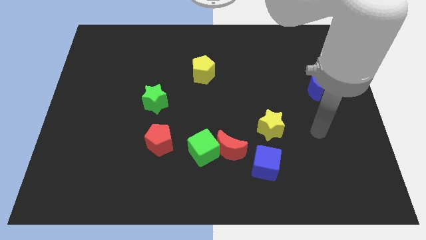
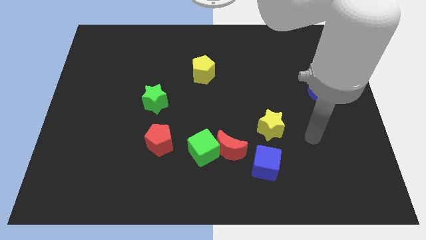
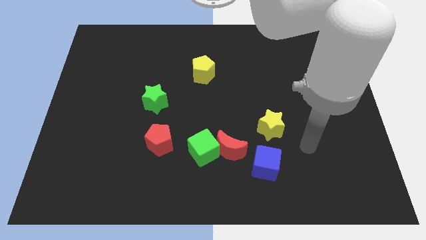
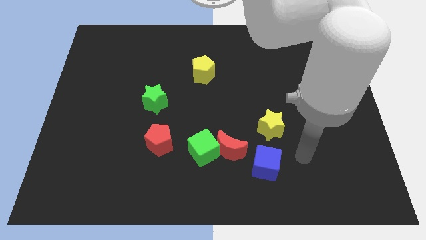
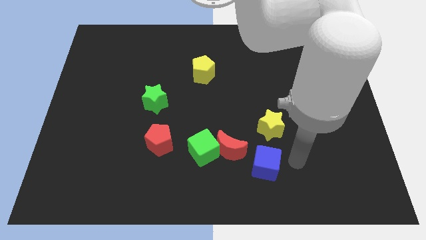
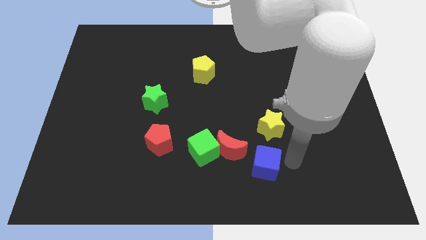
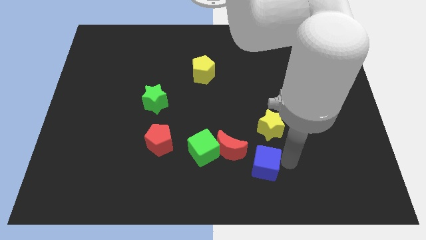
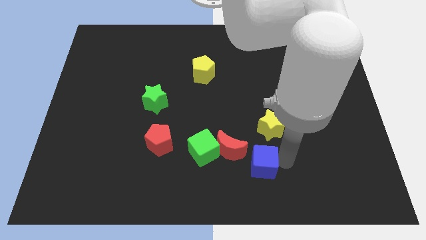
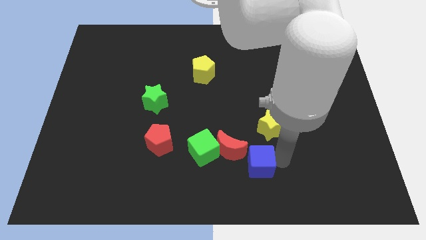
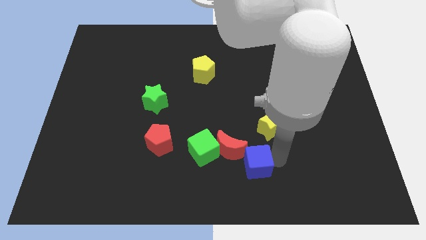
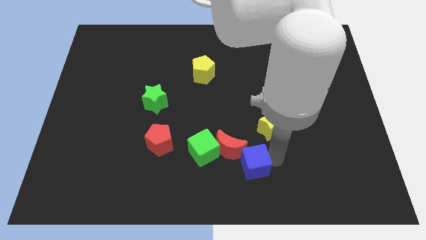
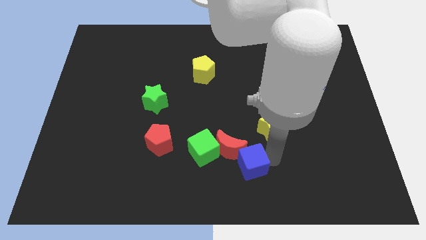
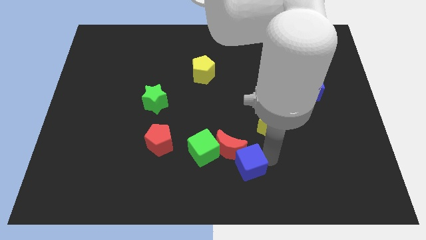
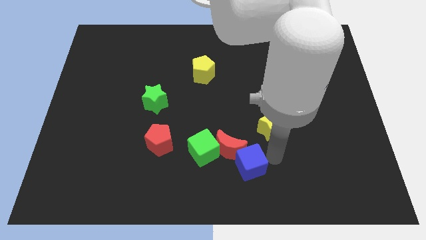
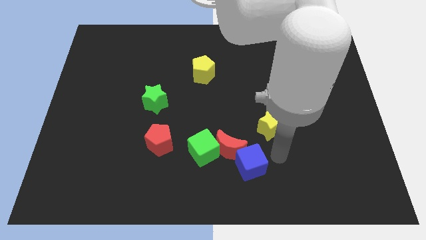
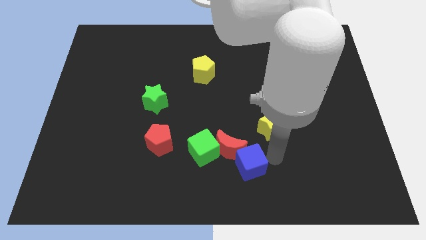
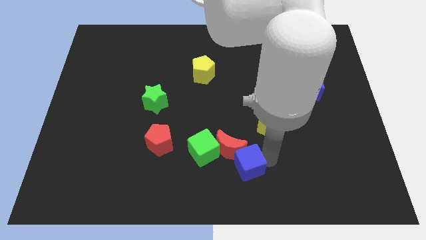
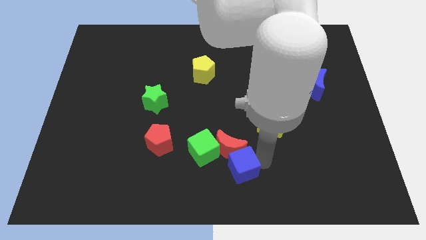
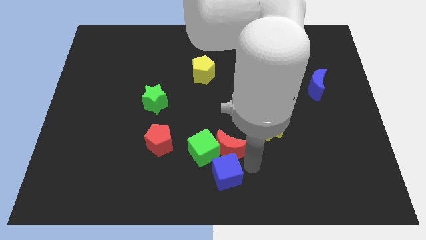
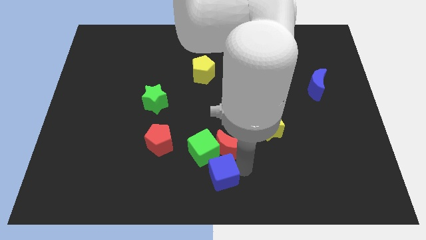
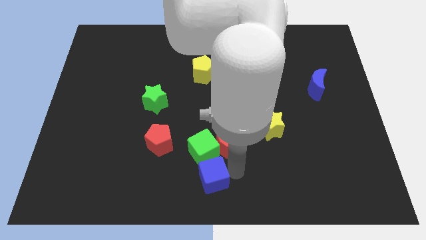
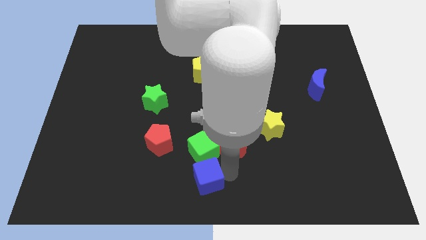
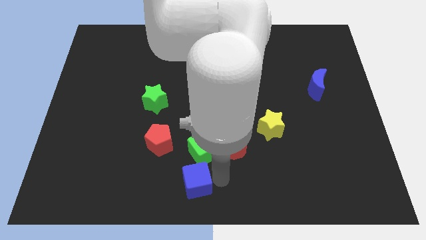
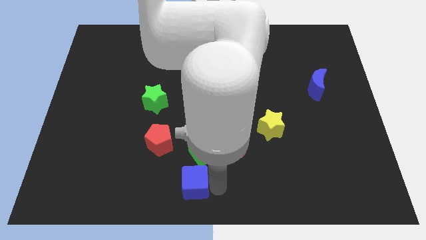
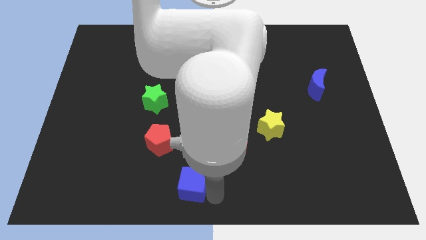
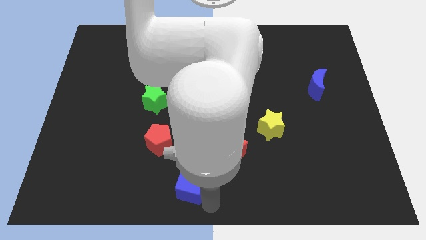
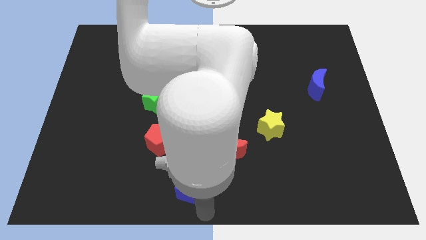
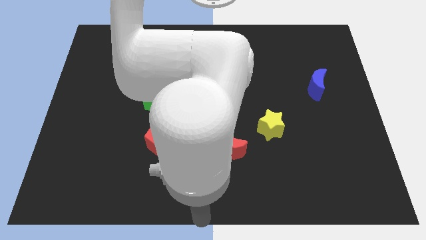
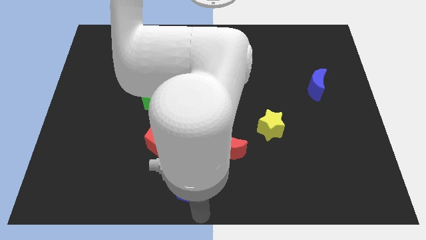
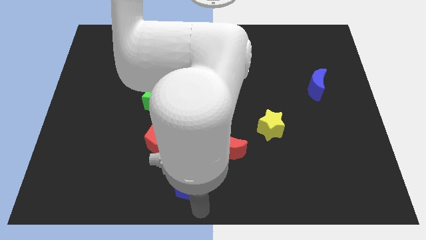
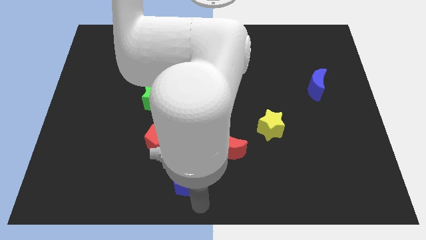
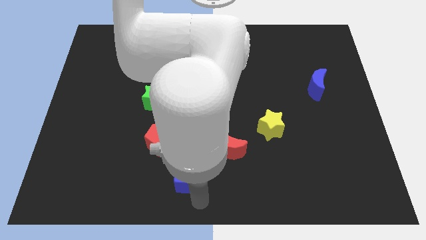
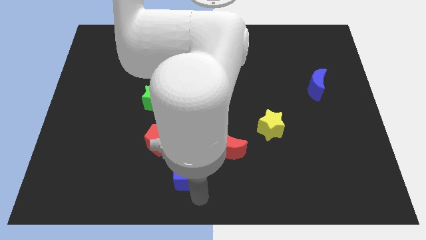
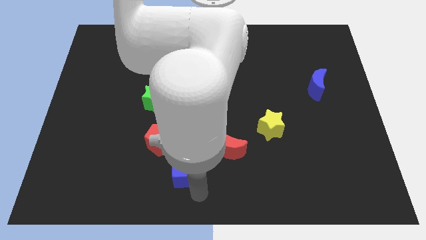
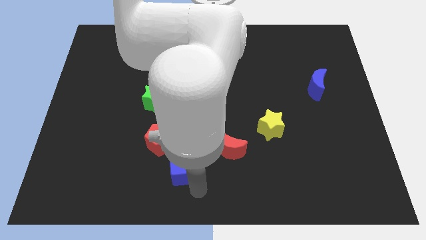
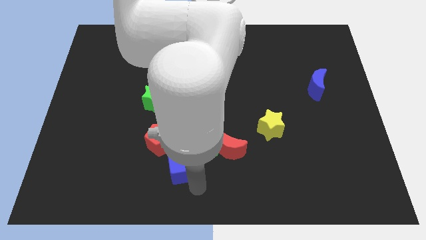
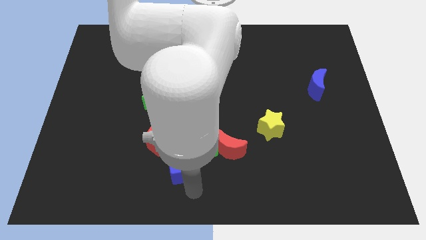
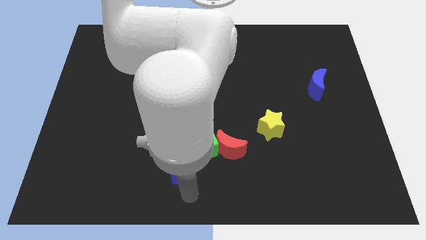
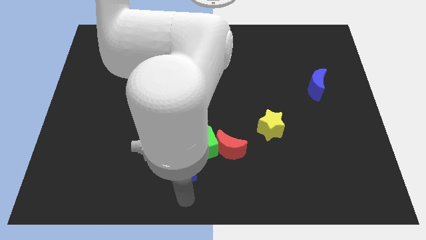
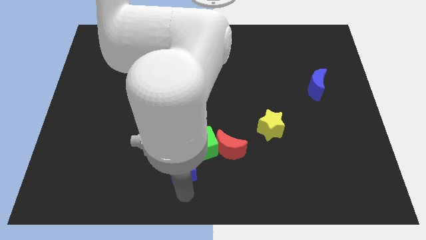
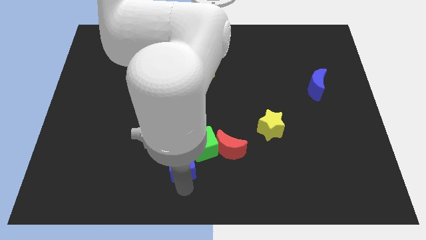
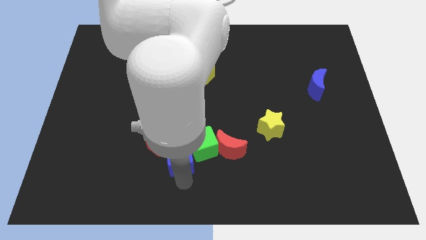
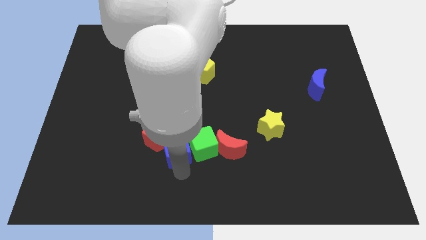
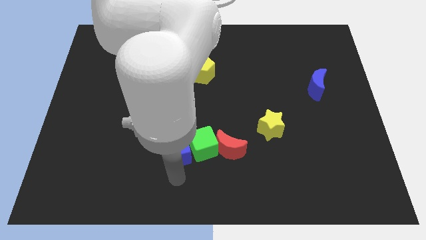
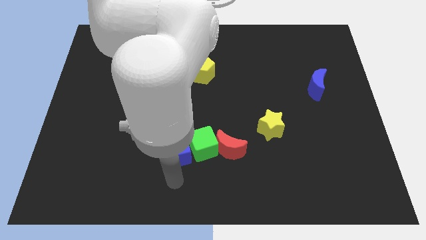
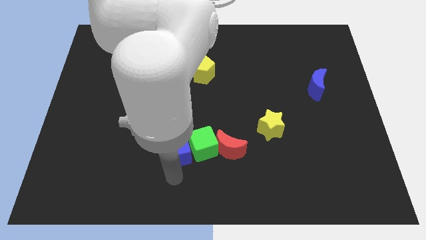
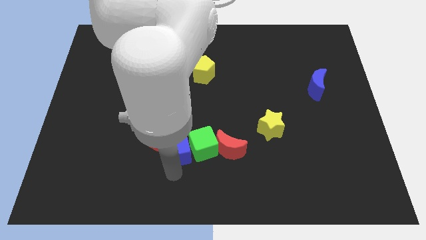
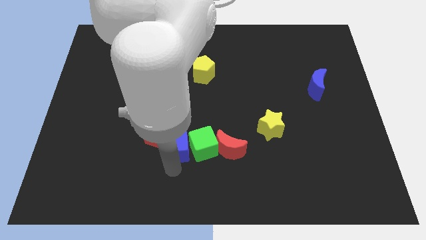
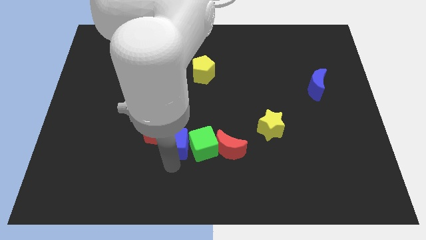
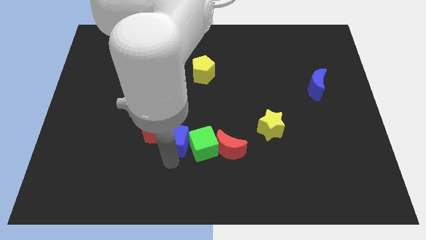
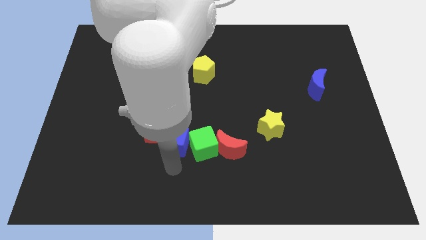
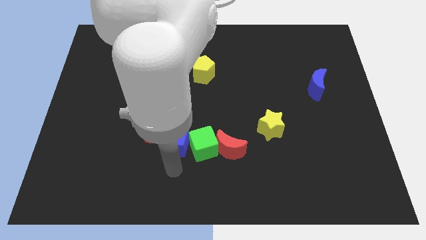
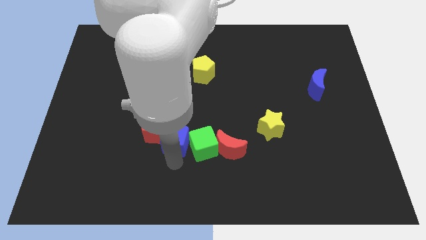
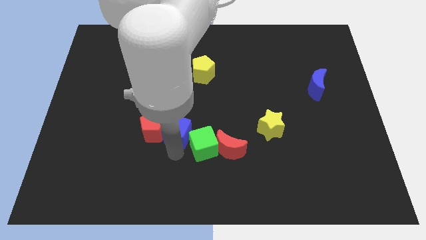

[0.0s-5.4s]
put the blue cube to the top right of the red pentagon

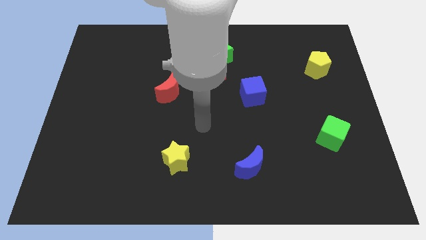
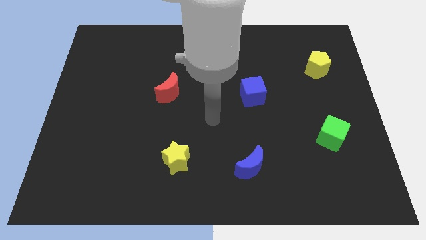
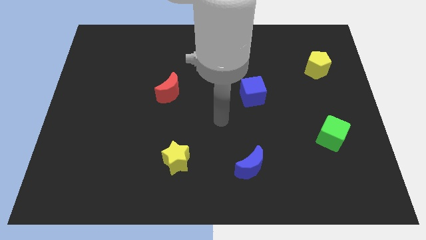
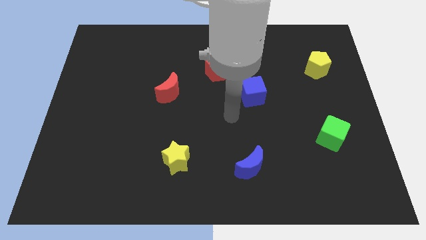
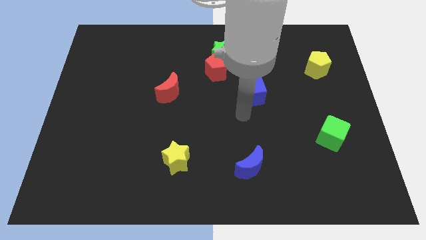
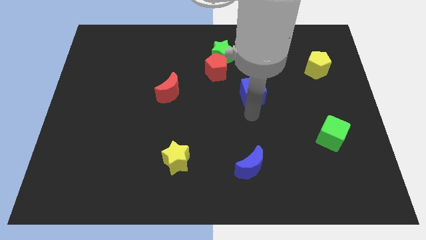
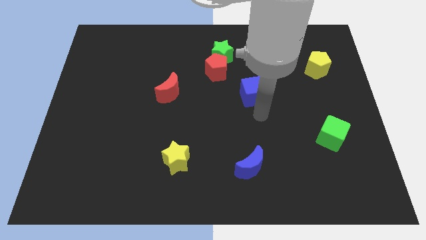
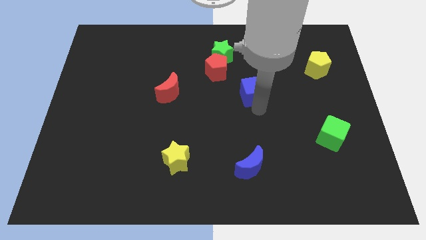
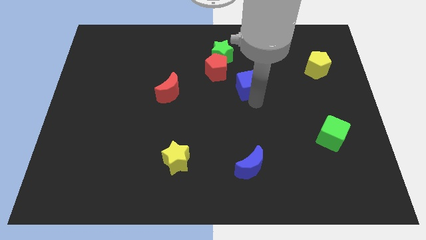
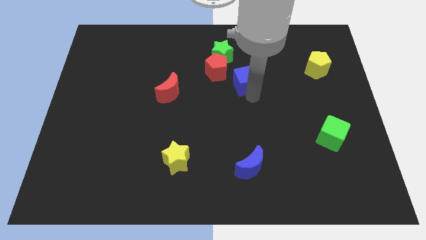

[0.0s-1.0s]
put the blue cube to the bottom right of the green star
